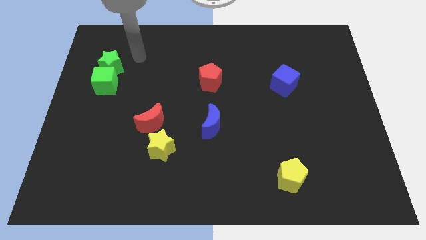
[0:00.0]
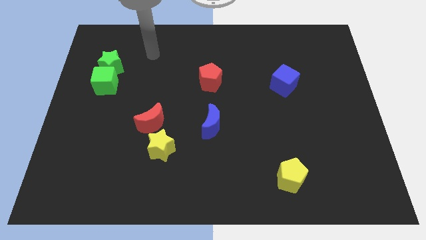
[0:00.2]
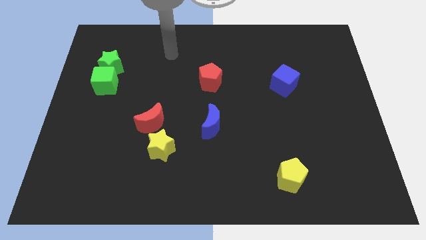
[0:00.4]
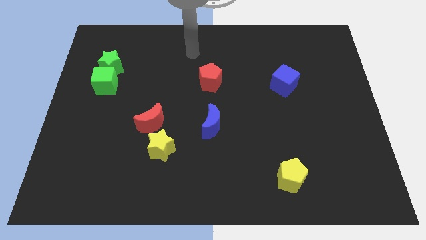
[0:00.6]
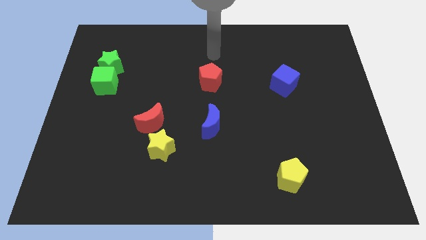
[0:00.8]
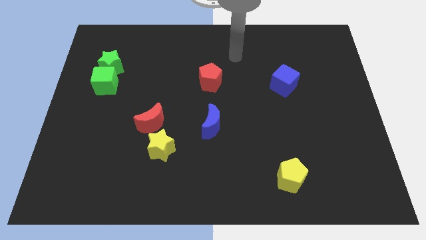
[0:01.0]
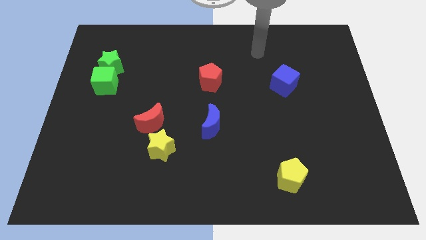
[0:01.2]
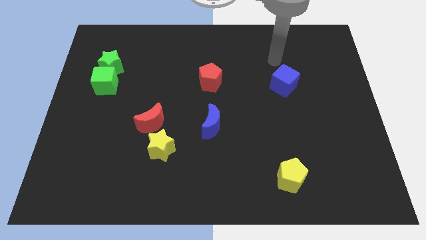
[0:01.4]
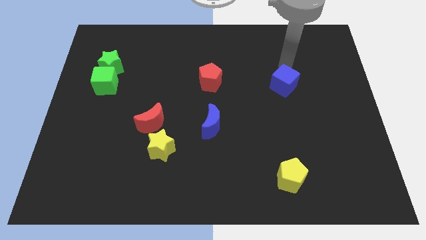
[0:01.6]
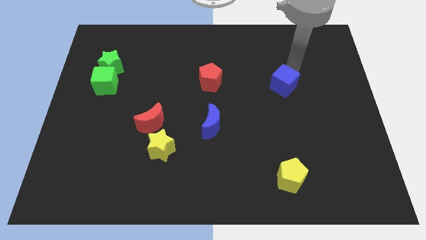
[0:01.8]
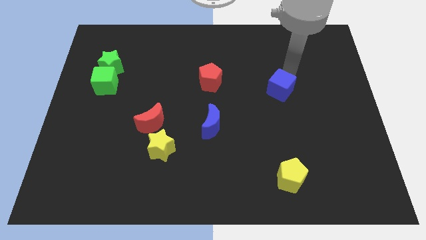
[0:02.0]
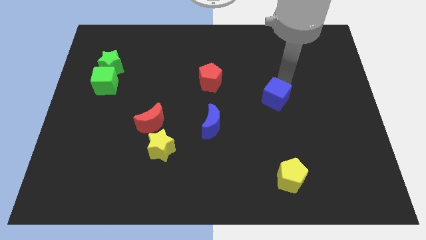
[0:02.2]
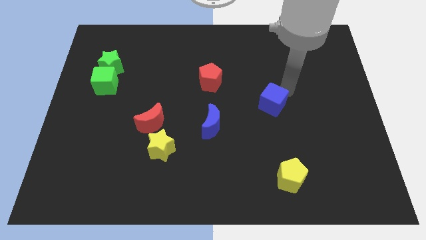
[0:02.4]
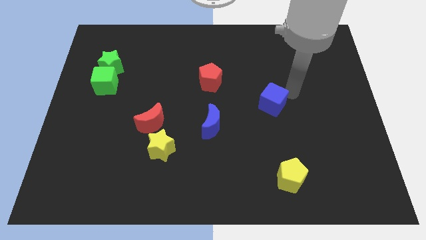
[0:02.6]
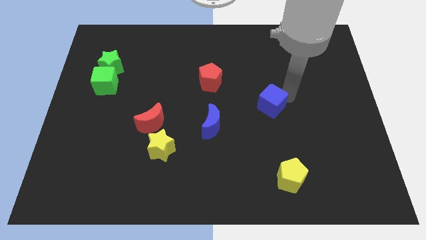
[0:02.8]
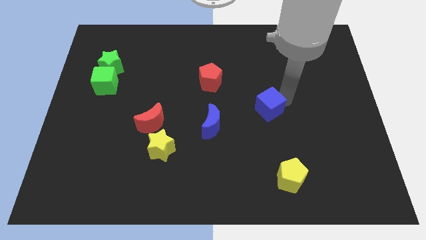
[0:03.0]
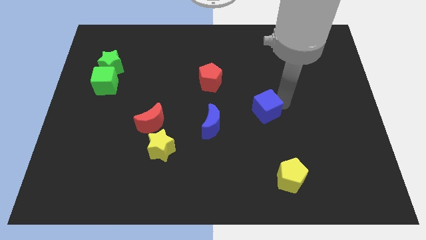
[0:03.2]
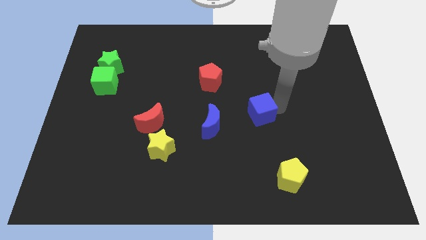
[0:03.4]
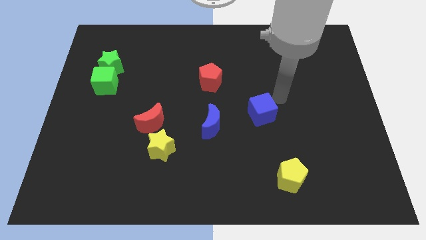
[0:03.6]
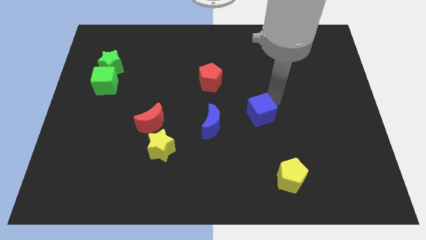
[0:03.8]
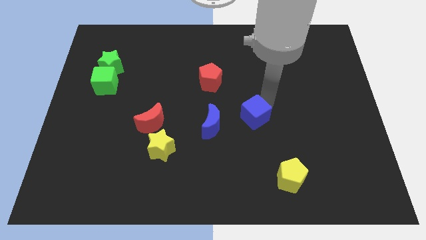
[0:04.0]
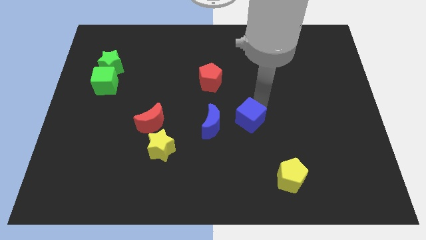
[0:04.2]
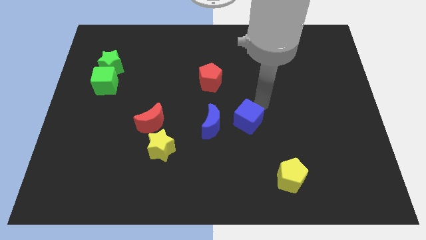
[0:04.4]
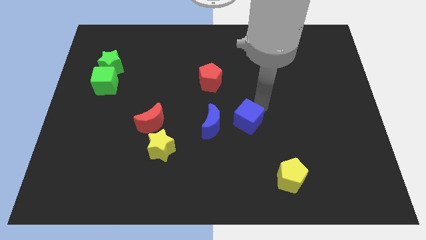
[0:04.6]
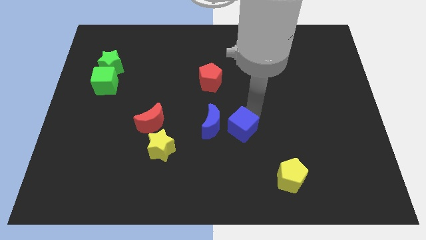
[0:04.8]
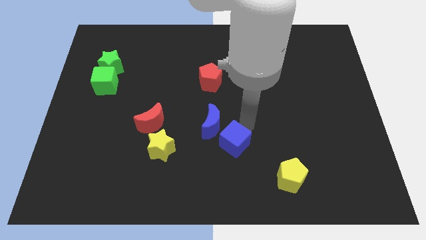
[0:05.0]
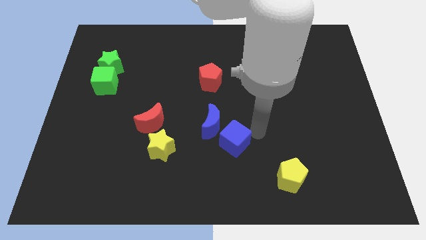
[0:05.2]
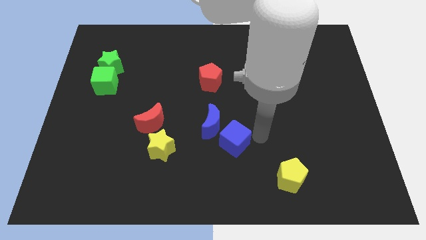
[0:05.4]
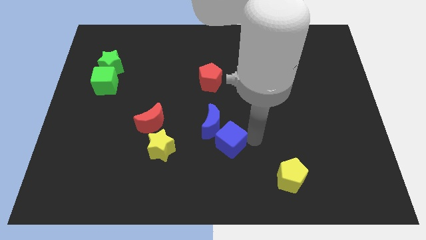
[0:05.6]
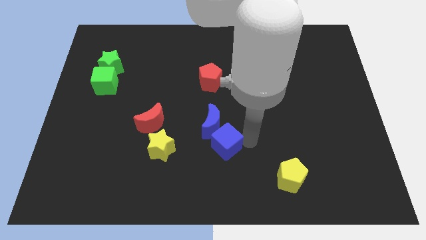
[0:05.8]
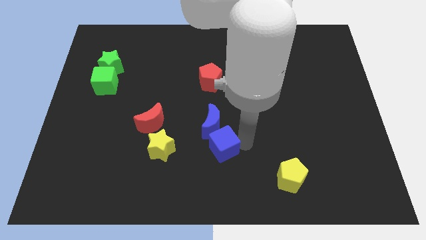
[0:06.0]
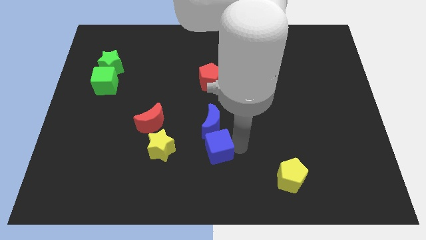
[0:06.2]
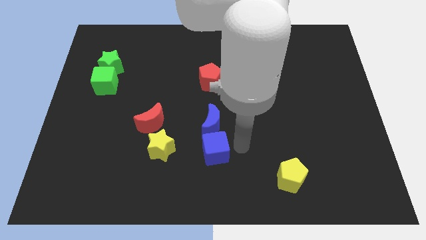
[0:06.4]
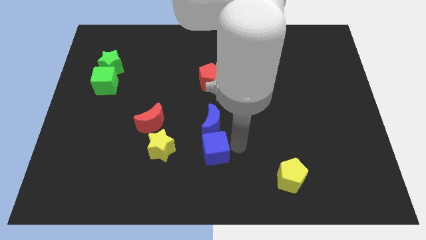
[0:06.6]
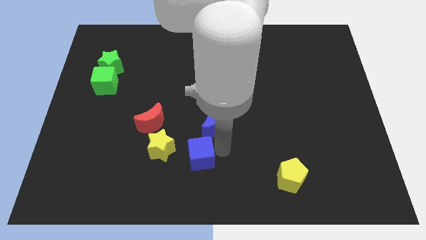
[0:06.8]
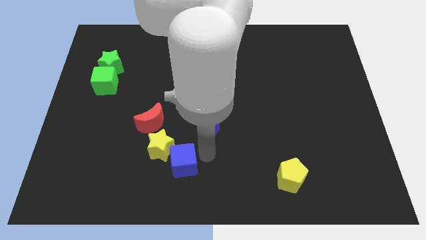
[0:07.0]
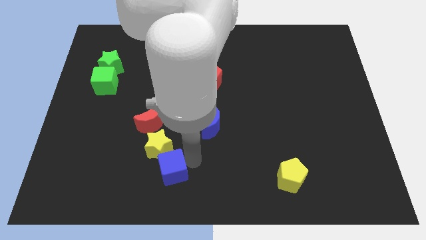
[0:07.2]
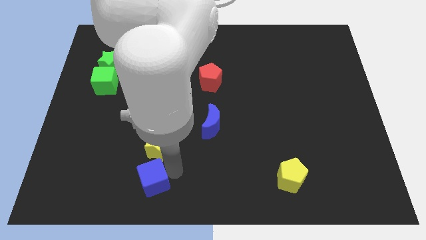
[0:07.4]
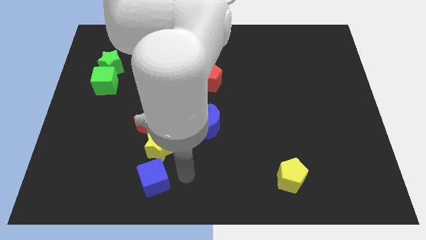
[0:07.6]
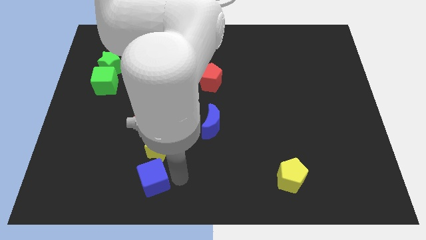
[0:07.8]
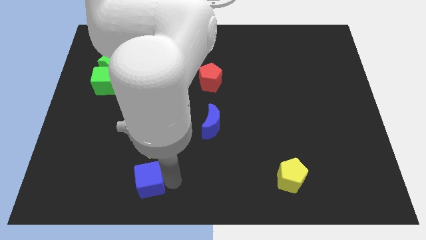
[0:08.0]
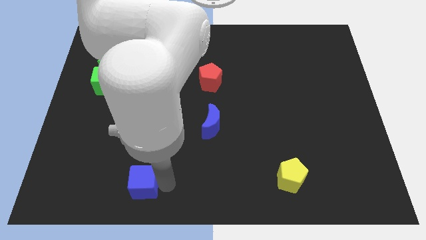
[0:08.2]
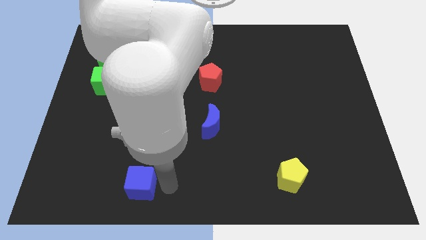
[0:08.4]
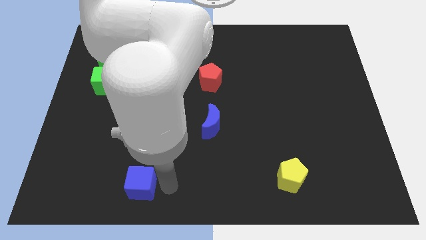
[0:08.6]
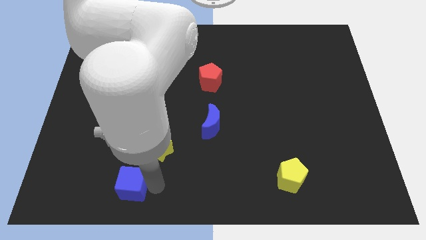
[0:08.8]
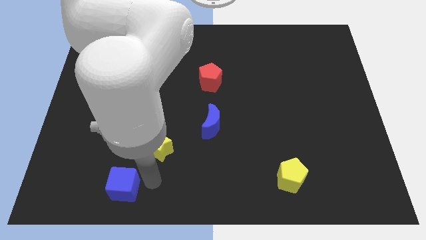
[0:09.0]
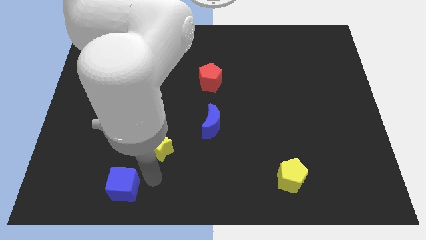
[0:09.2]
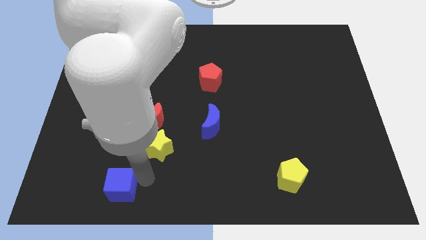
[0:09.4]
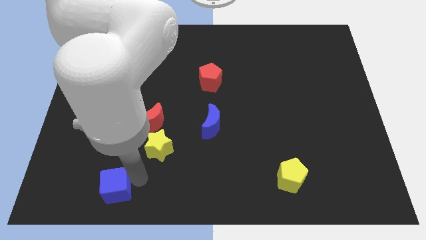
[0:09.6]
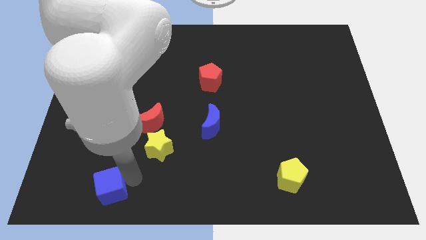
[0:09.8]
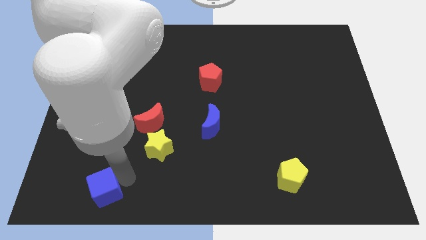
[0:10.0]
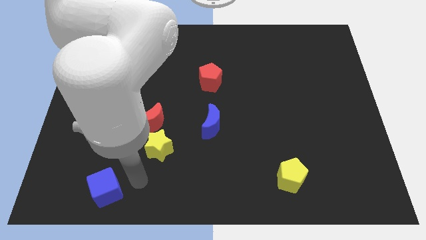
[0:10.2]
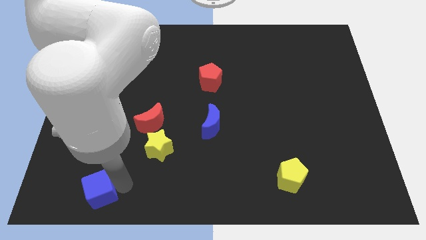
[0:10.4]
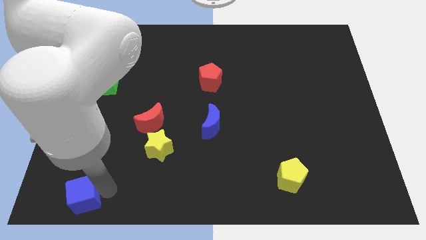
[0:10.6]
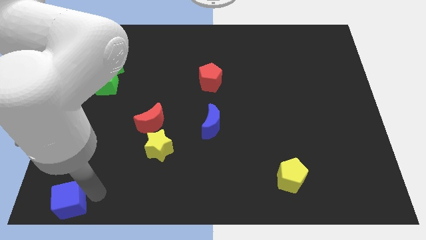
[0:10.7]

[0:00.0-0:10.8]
move the blue cube to the lower left corner

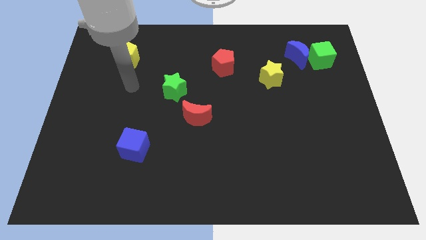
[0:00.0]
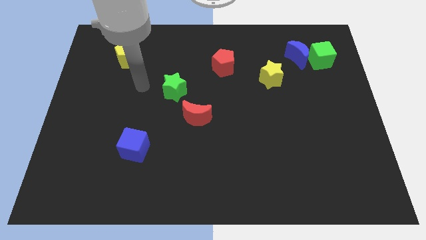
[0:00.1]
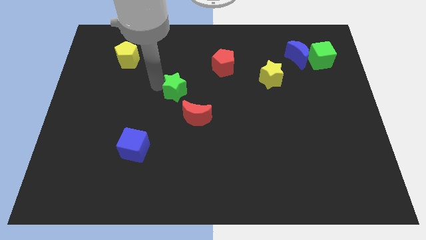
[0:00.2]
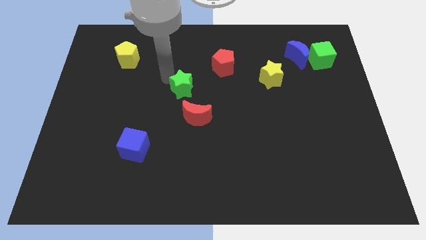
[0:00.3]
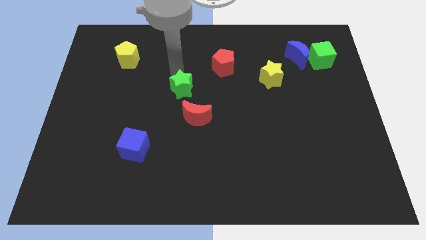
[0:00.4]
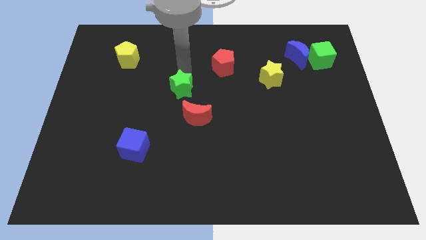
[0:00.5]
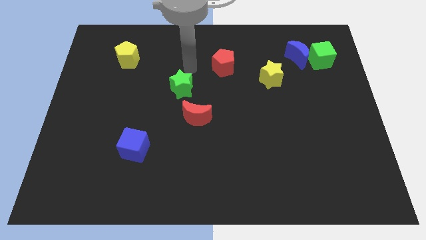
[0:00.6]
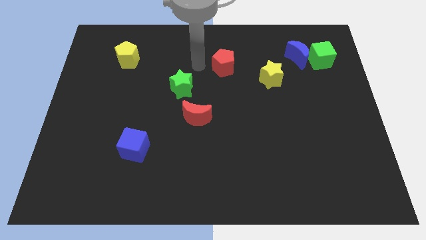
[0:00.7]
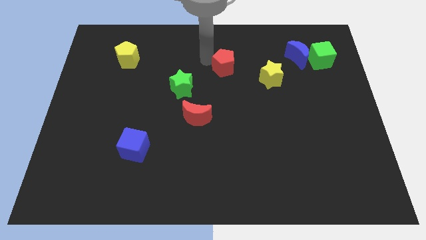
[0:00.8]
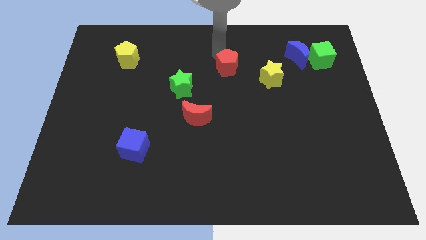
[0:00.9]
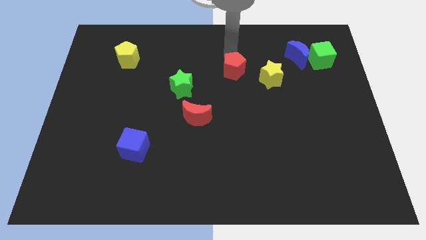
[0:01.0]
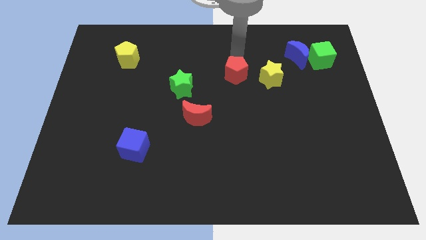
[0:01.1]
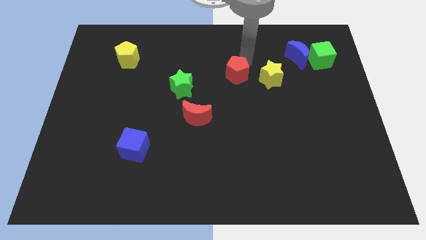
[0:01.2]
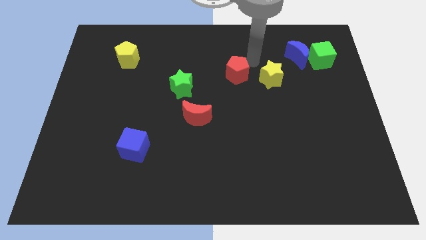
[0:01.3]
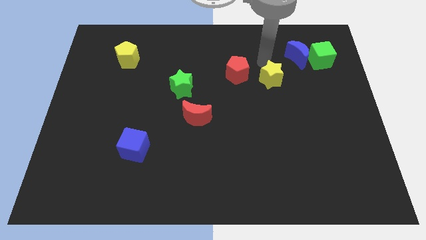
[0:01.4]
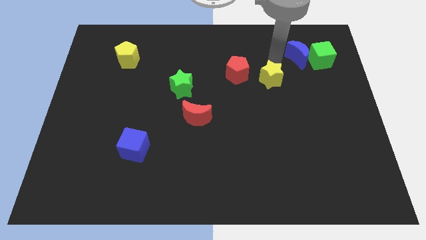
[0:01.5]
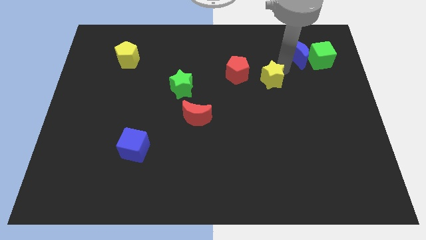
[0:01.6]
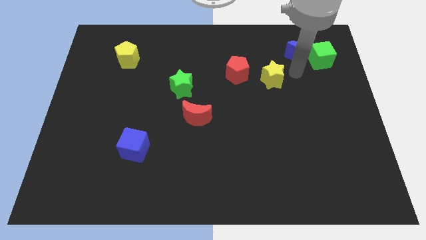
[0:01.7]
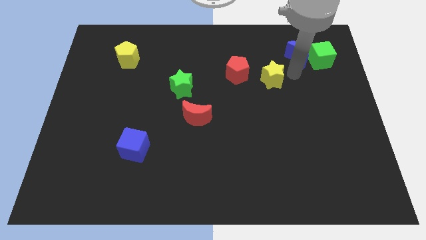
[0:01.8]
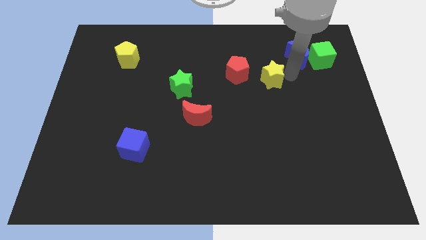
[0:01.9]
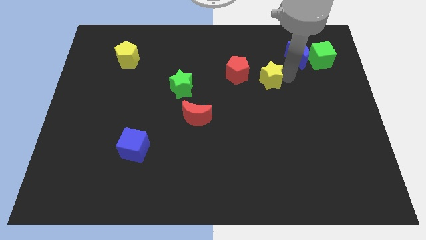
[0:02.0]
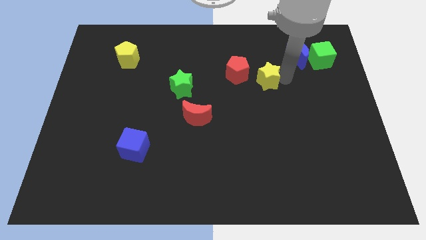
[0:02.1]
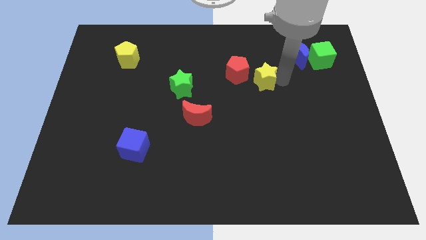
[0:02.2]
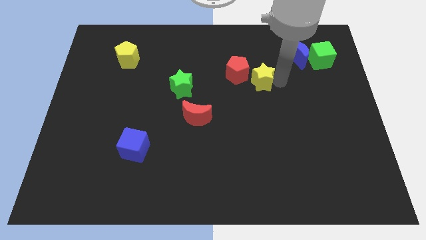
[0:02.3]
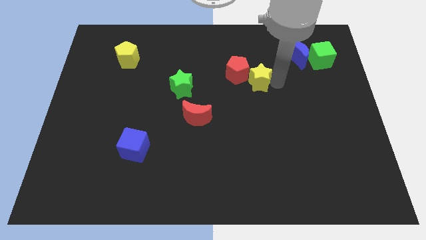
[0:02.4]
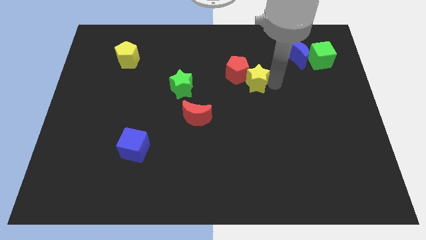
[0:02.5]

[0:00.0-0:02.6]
move the yellow star to the middle of the board

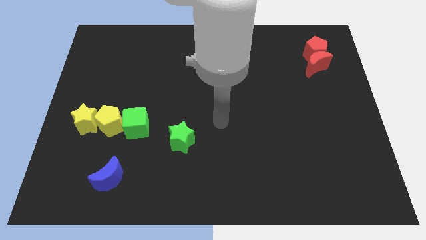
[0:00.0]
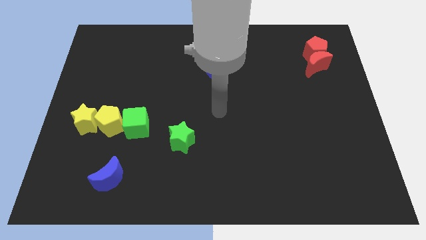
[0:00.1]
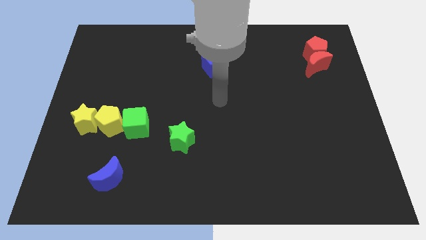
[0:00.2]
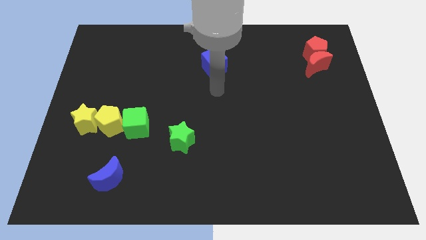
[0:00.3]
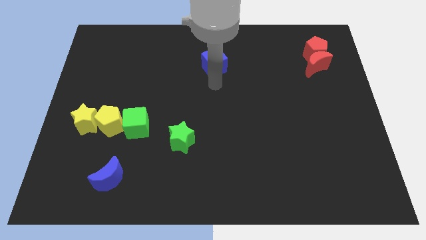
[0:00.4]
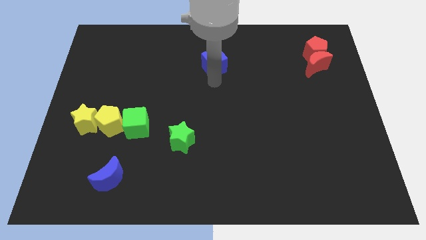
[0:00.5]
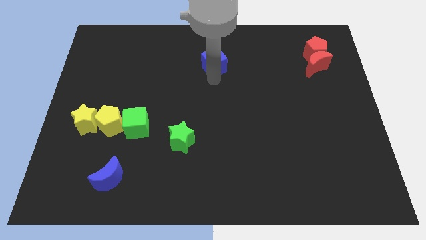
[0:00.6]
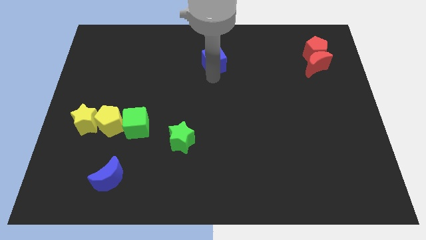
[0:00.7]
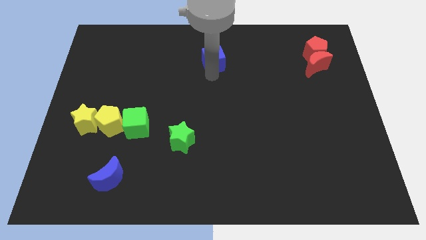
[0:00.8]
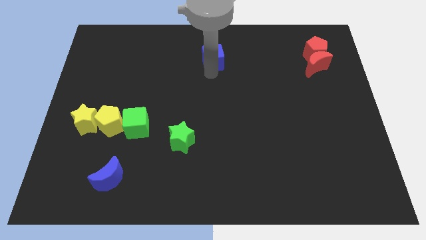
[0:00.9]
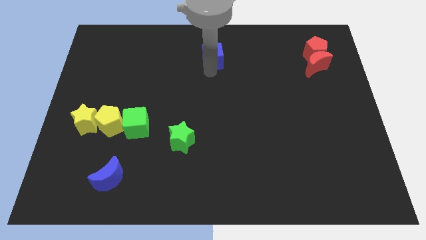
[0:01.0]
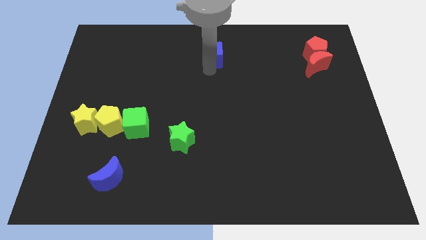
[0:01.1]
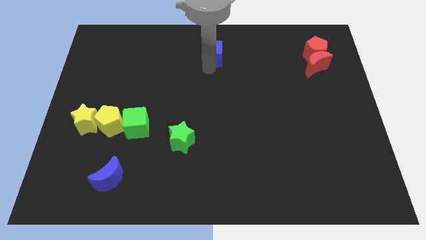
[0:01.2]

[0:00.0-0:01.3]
slide the blue cube to the top
